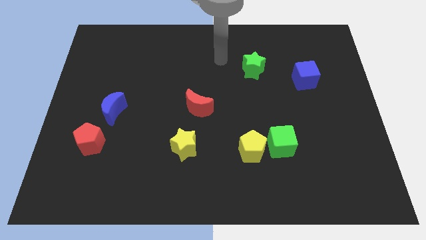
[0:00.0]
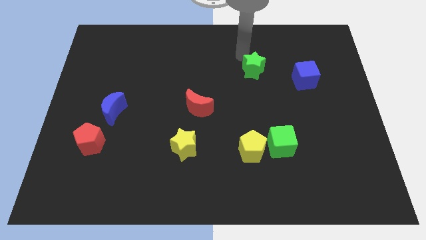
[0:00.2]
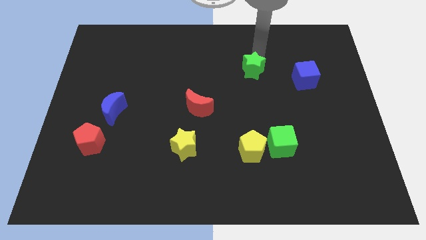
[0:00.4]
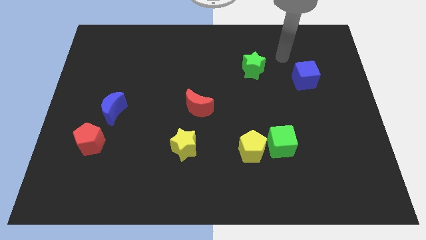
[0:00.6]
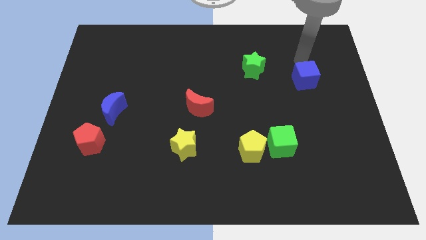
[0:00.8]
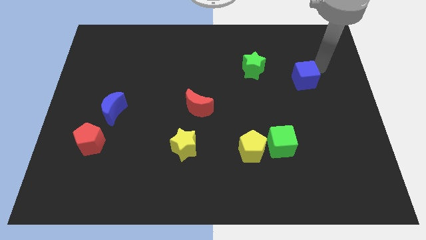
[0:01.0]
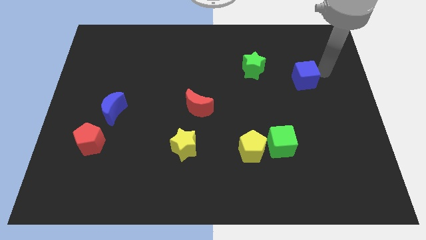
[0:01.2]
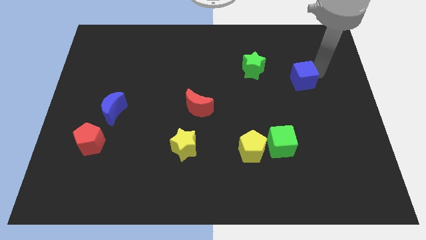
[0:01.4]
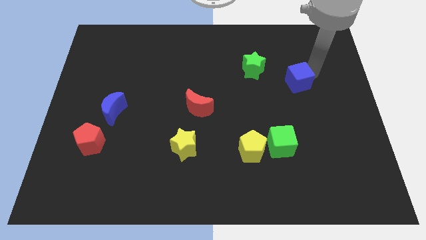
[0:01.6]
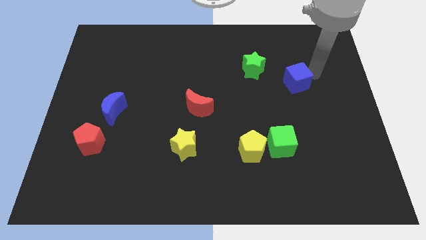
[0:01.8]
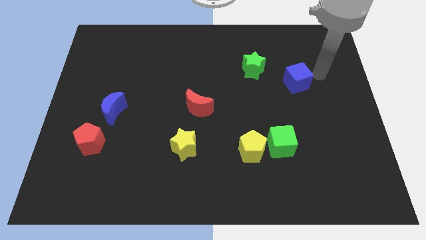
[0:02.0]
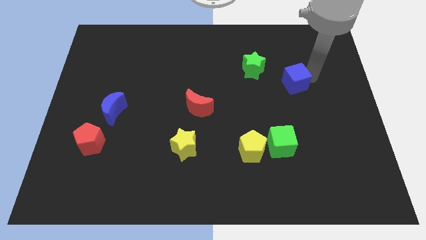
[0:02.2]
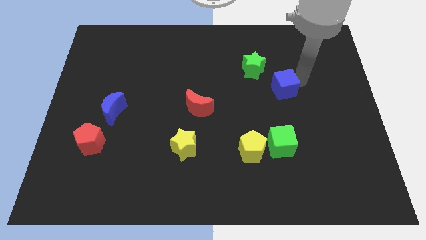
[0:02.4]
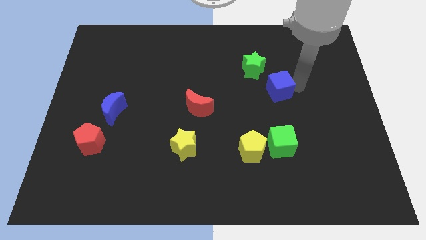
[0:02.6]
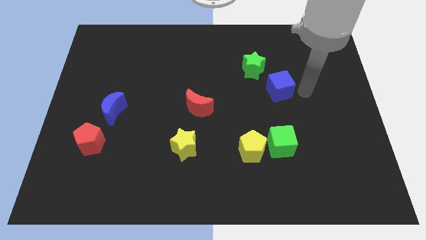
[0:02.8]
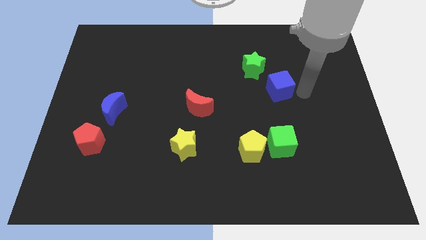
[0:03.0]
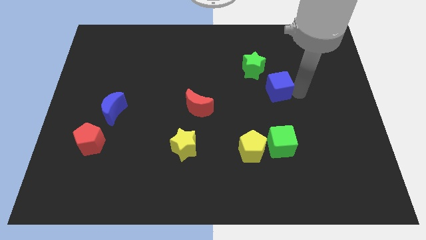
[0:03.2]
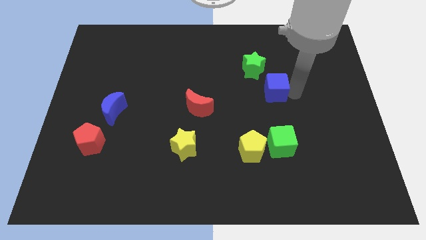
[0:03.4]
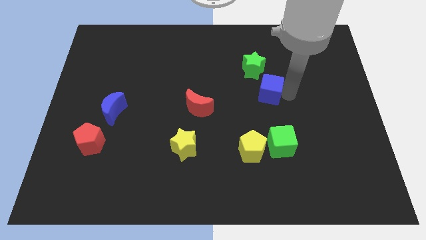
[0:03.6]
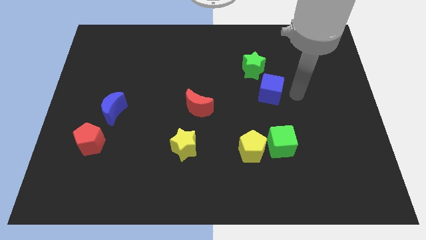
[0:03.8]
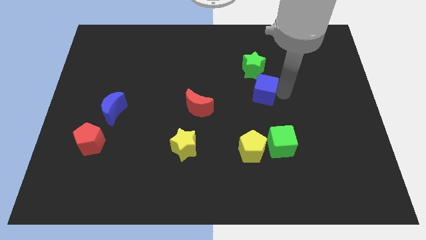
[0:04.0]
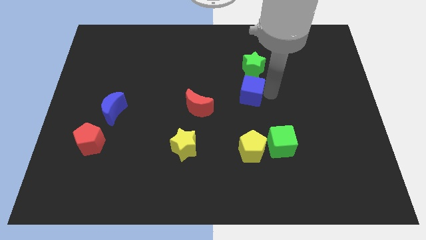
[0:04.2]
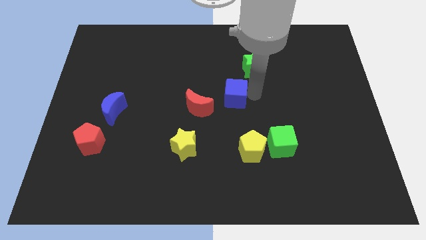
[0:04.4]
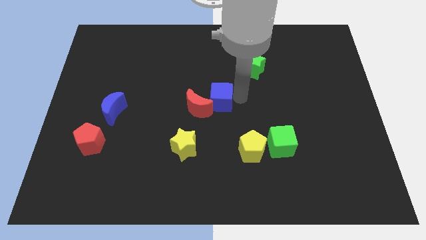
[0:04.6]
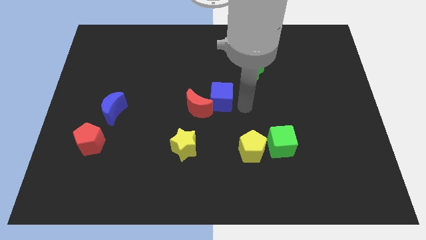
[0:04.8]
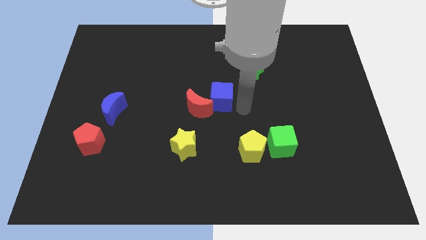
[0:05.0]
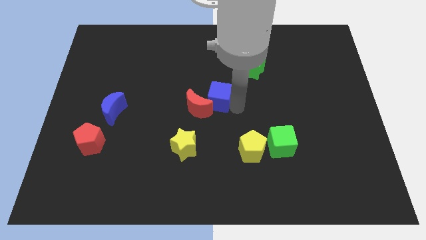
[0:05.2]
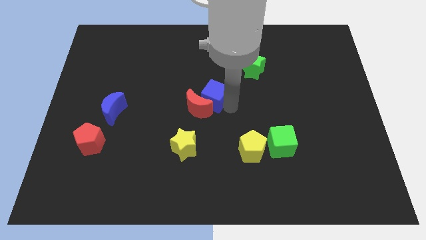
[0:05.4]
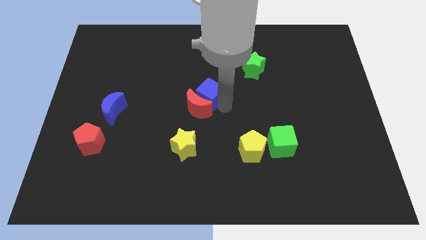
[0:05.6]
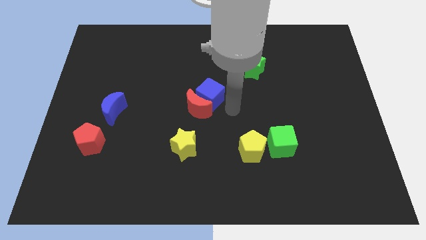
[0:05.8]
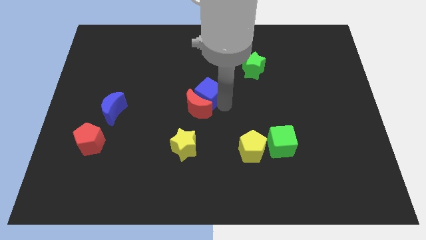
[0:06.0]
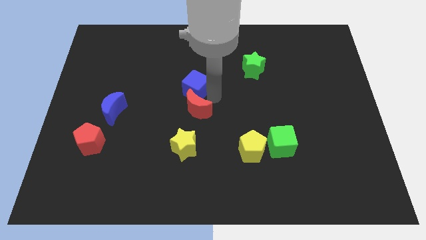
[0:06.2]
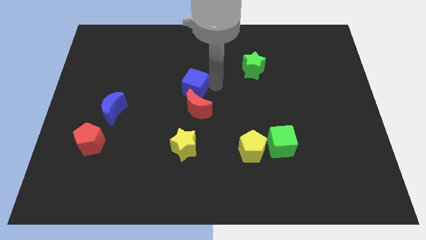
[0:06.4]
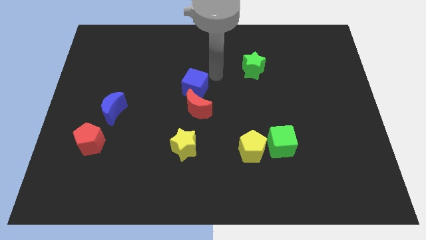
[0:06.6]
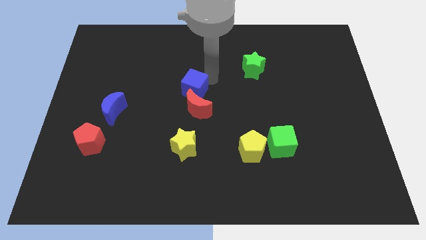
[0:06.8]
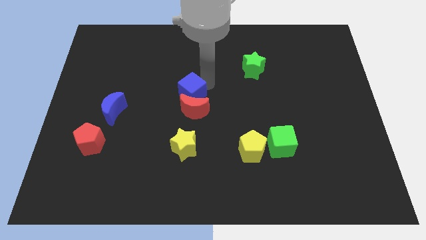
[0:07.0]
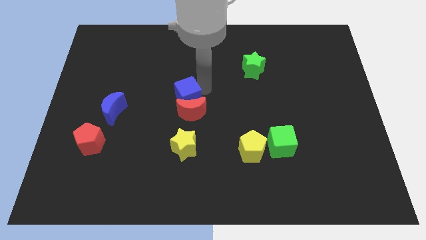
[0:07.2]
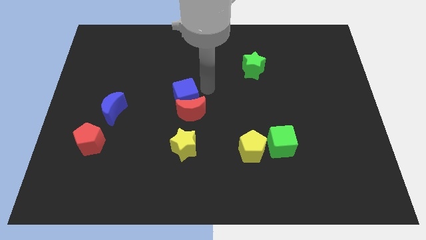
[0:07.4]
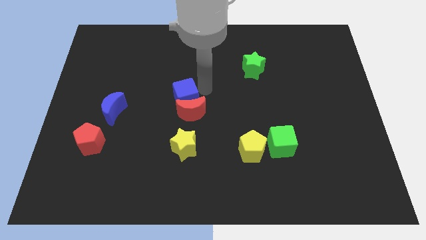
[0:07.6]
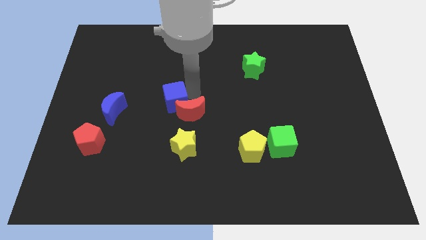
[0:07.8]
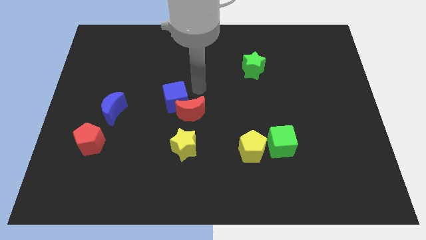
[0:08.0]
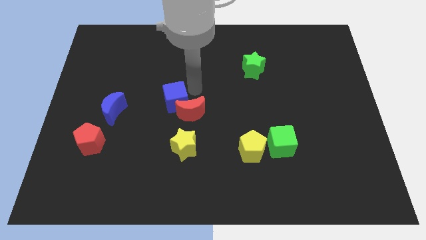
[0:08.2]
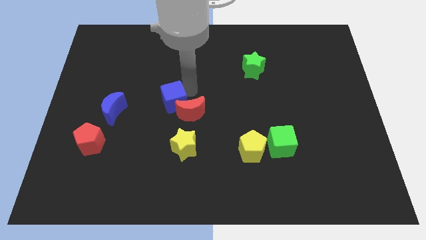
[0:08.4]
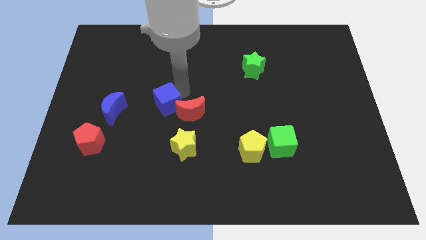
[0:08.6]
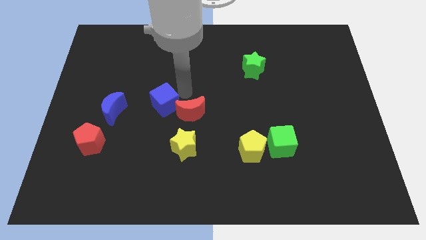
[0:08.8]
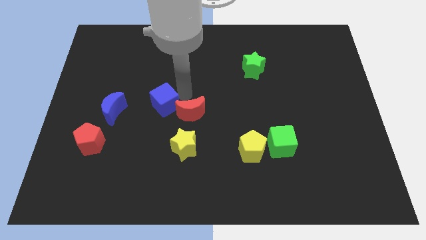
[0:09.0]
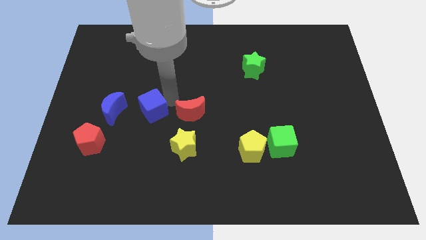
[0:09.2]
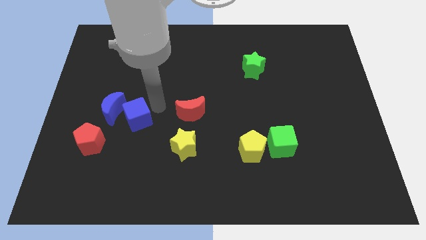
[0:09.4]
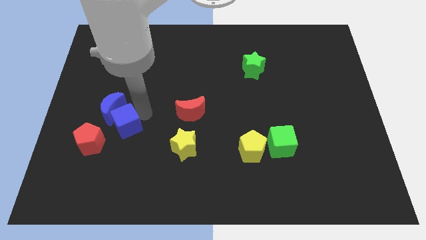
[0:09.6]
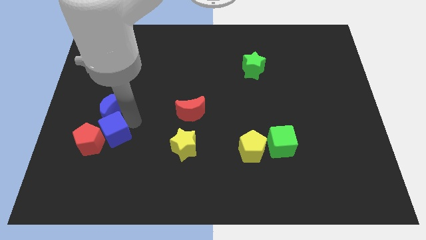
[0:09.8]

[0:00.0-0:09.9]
move the blue cube next to the red pentagon

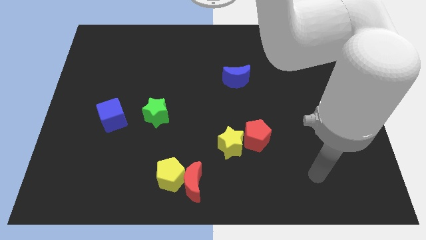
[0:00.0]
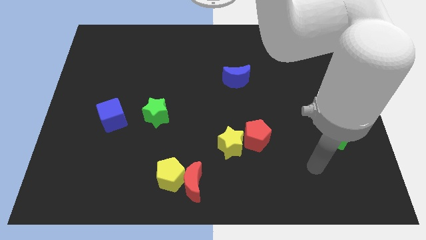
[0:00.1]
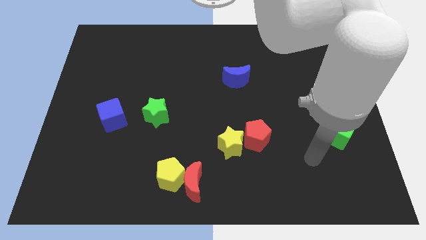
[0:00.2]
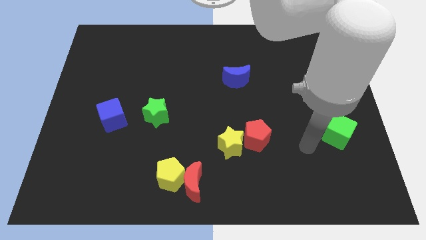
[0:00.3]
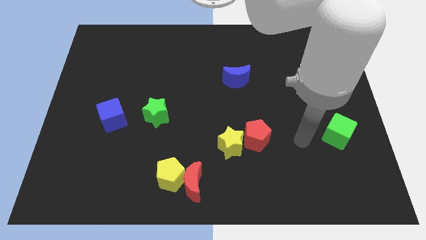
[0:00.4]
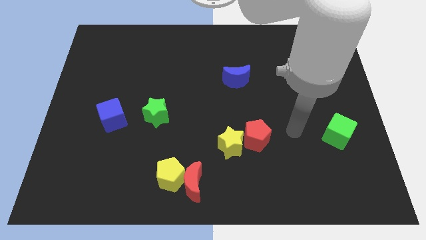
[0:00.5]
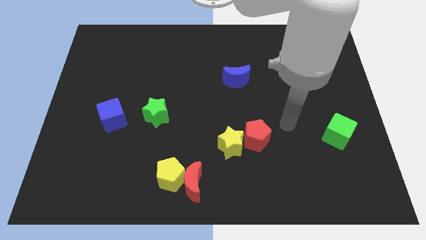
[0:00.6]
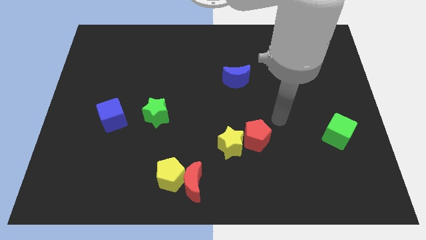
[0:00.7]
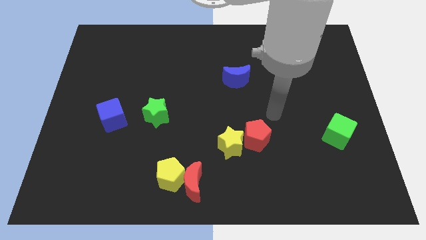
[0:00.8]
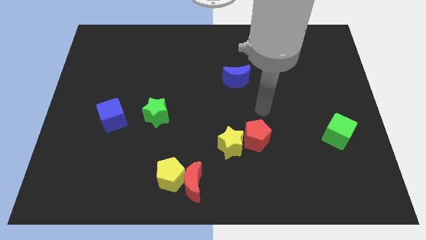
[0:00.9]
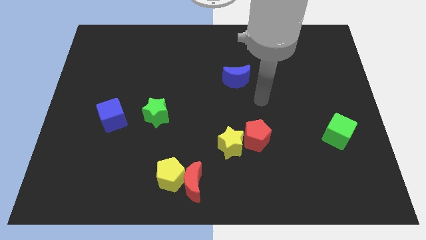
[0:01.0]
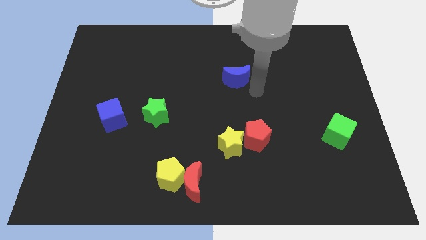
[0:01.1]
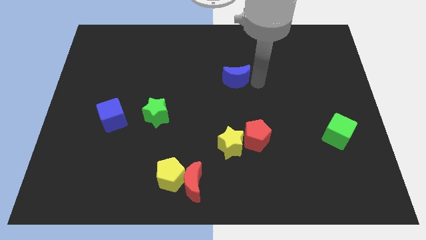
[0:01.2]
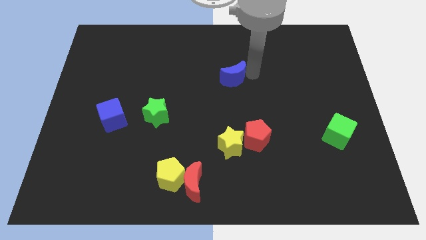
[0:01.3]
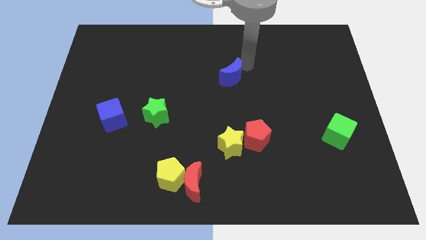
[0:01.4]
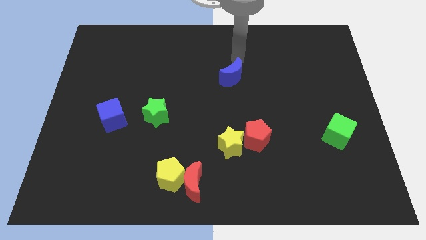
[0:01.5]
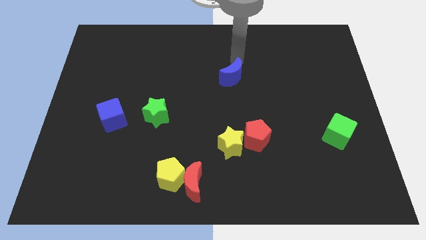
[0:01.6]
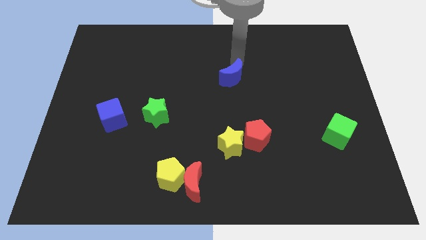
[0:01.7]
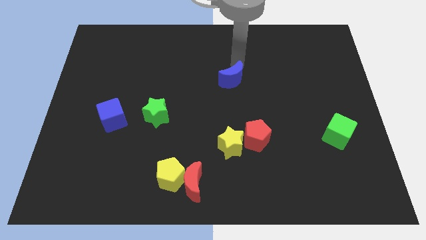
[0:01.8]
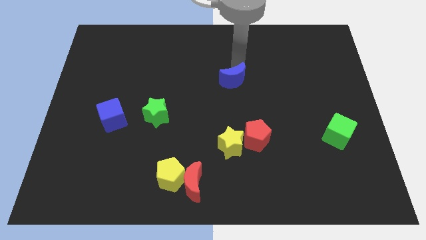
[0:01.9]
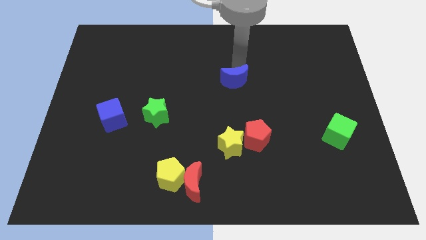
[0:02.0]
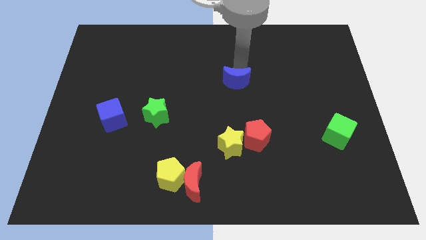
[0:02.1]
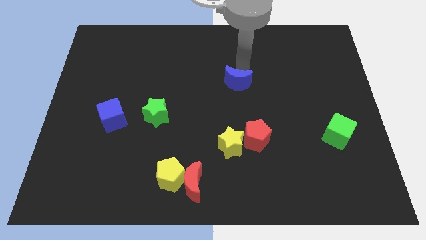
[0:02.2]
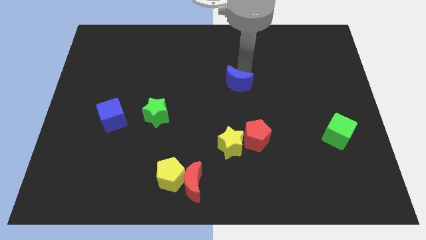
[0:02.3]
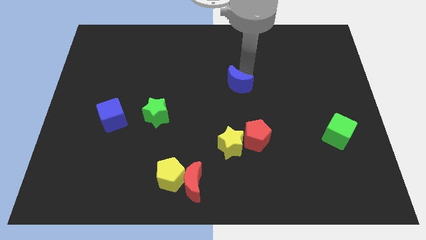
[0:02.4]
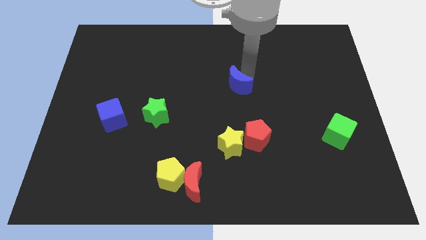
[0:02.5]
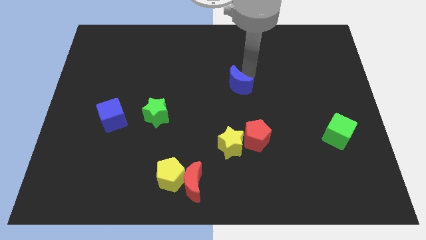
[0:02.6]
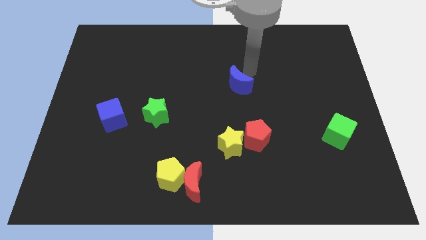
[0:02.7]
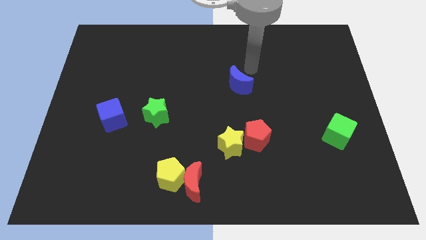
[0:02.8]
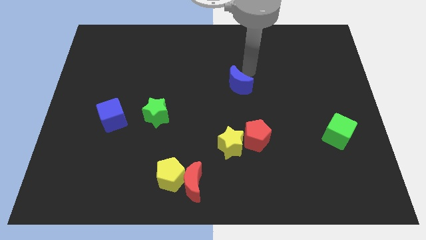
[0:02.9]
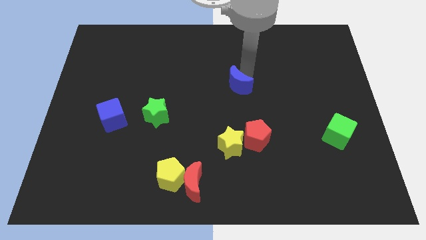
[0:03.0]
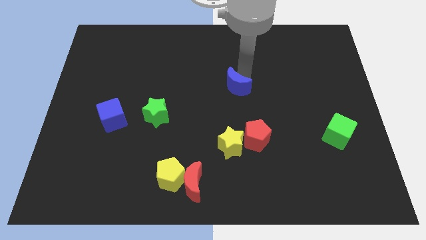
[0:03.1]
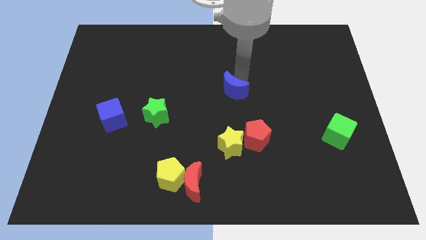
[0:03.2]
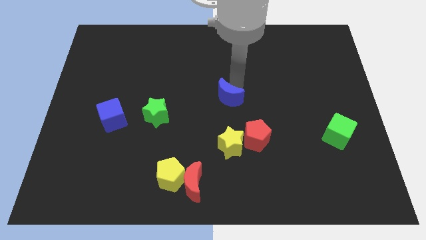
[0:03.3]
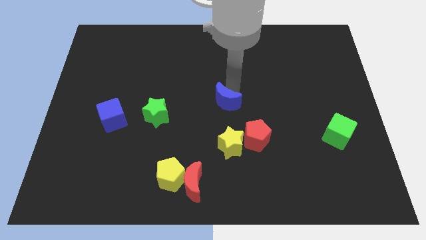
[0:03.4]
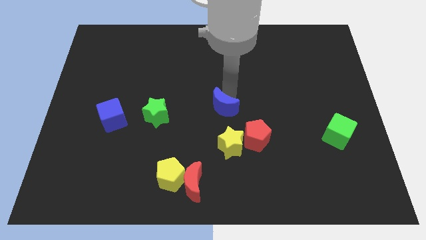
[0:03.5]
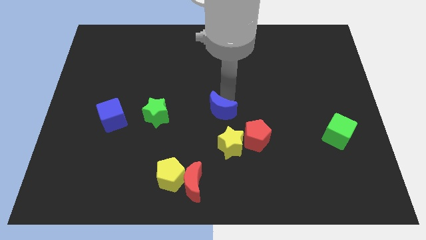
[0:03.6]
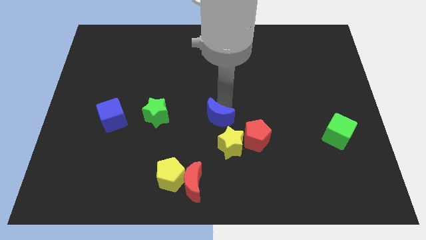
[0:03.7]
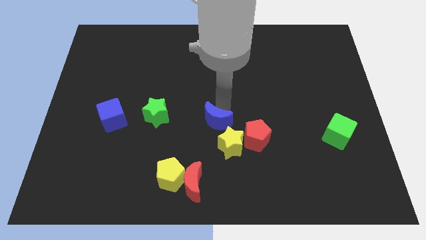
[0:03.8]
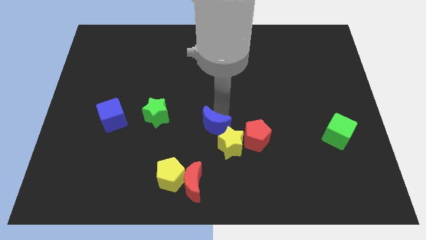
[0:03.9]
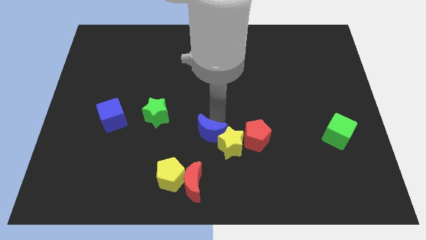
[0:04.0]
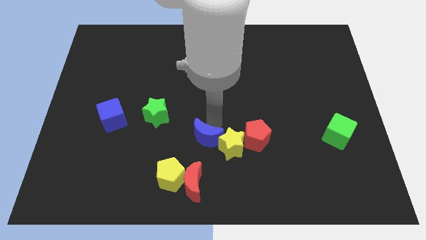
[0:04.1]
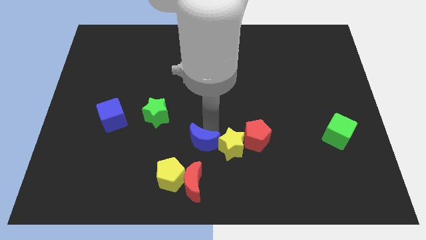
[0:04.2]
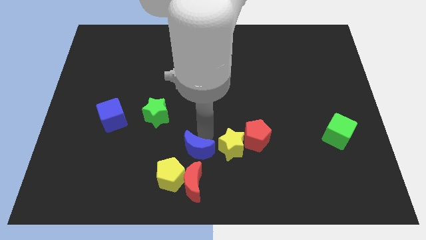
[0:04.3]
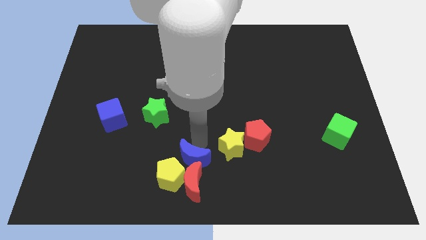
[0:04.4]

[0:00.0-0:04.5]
slide the blue moon close to the red moon
